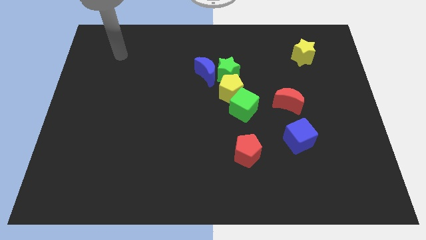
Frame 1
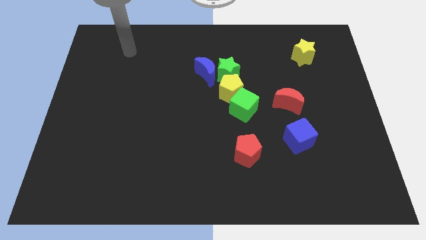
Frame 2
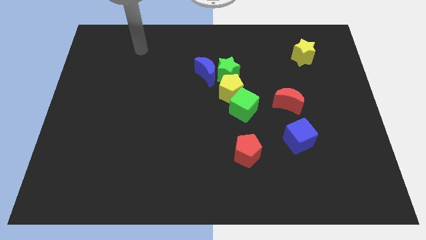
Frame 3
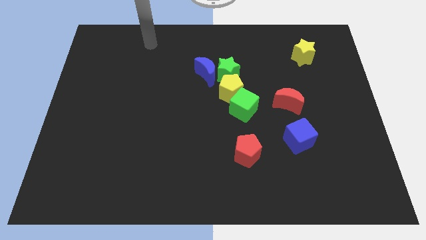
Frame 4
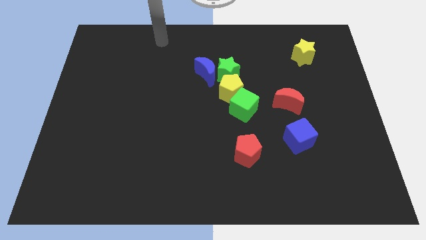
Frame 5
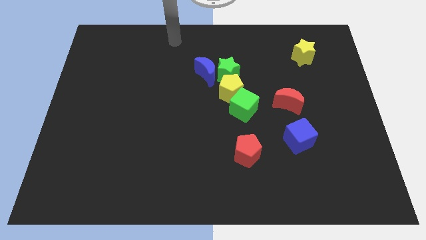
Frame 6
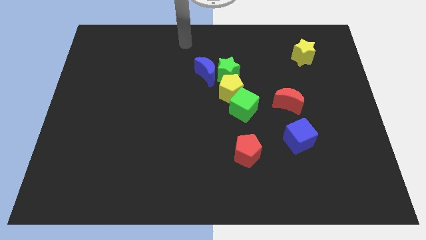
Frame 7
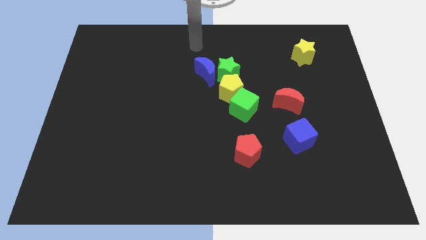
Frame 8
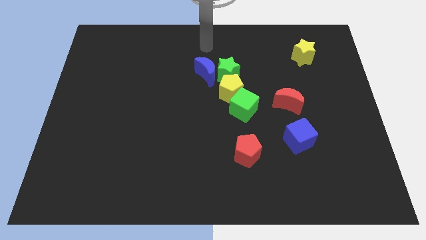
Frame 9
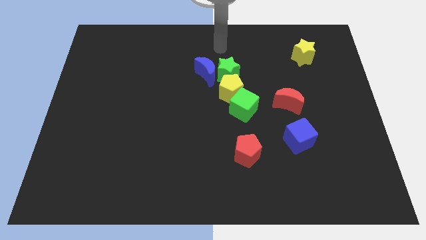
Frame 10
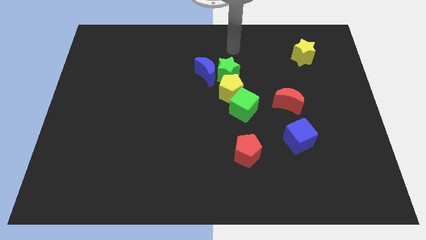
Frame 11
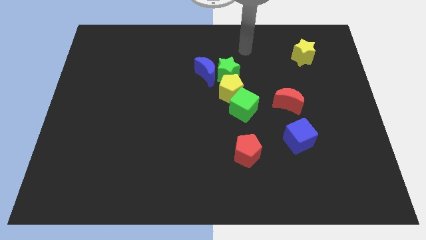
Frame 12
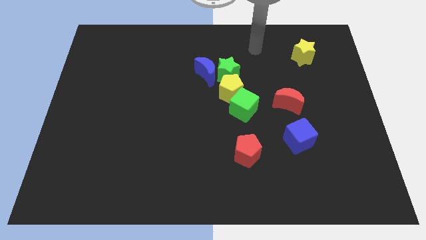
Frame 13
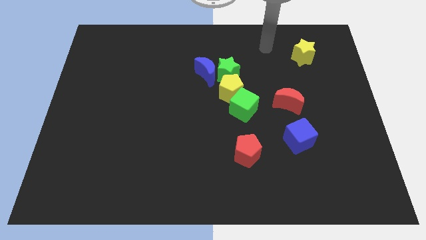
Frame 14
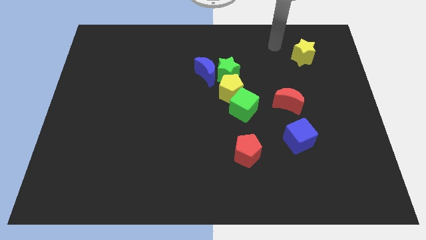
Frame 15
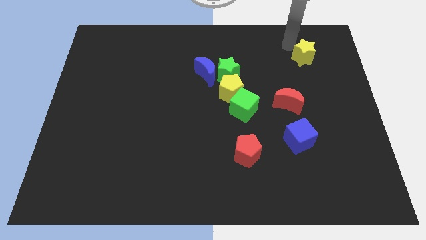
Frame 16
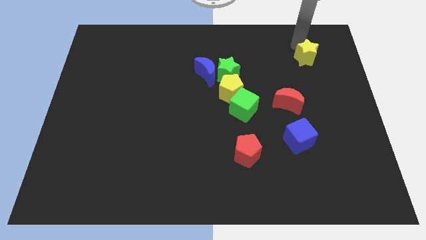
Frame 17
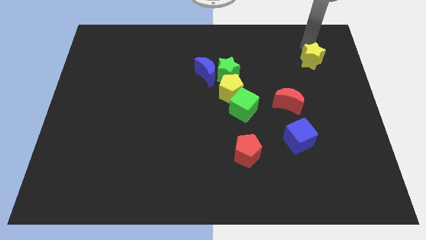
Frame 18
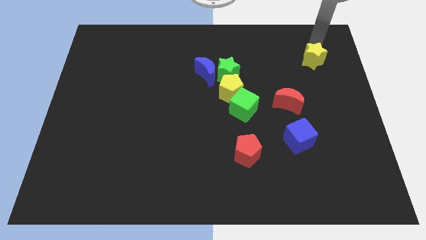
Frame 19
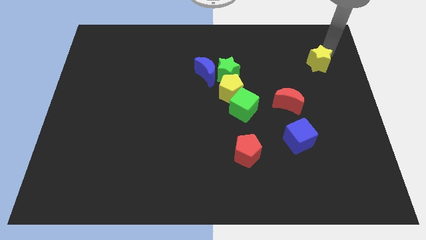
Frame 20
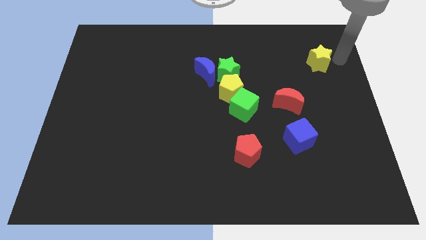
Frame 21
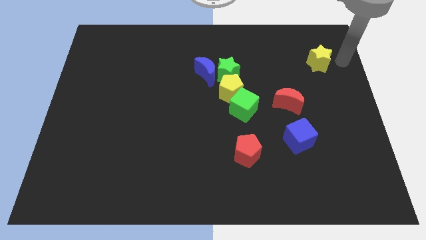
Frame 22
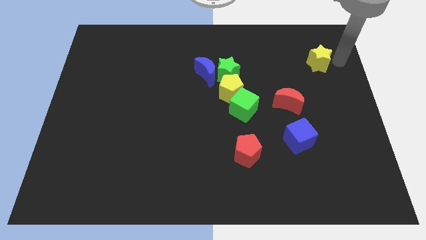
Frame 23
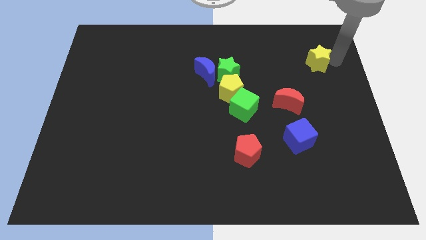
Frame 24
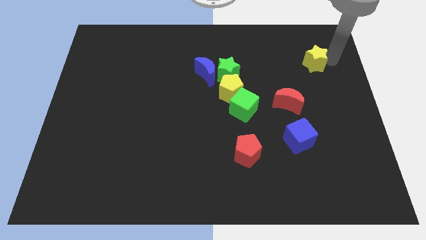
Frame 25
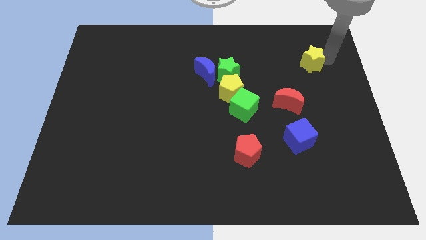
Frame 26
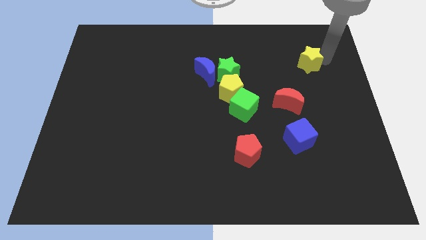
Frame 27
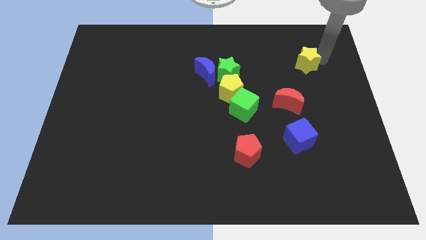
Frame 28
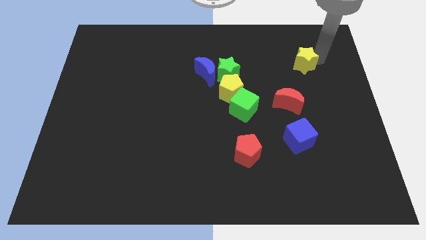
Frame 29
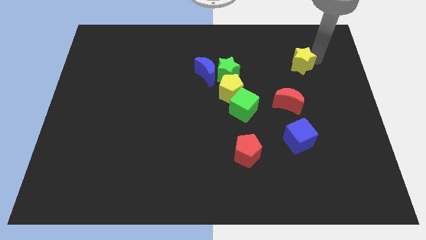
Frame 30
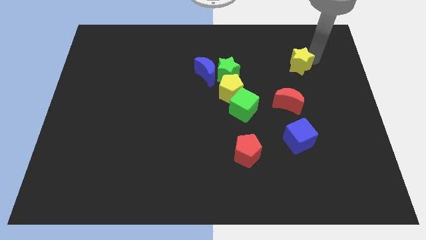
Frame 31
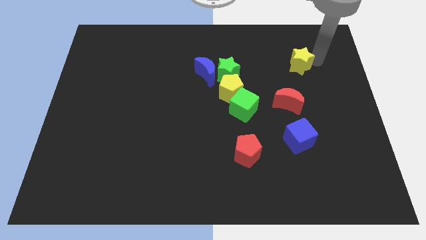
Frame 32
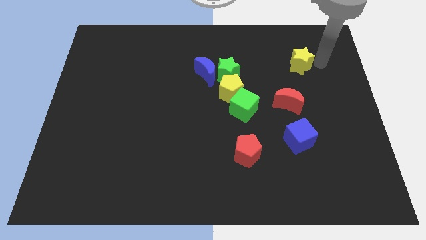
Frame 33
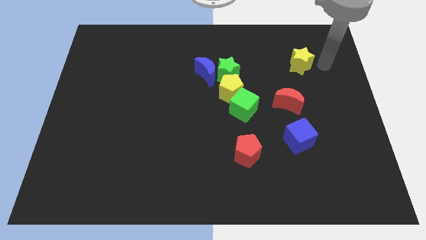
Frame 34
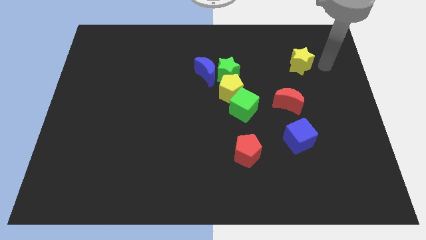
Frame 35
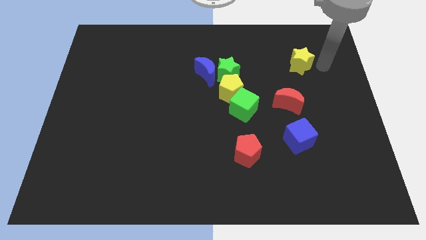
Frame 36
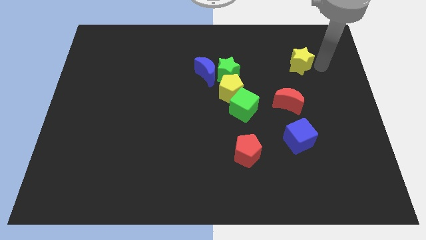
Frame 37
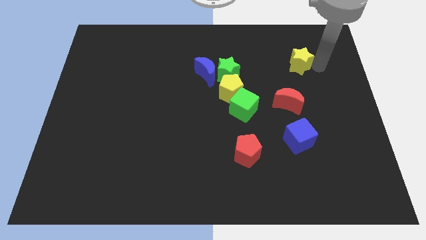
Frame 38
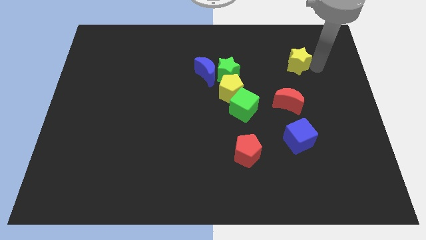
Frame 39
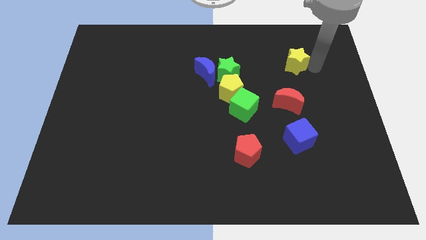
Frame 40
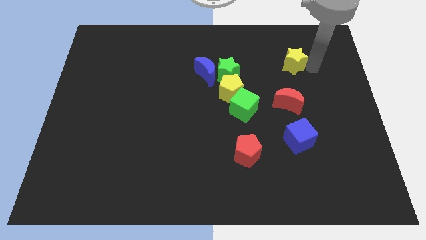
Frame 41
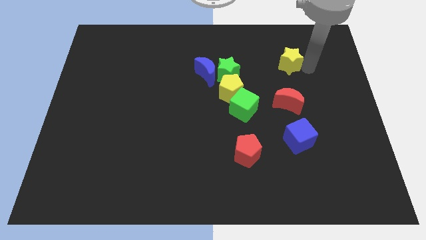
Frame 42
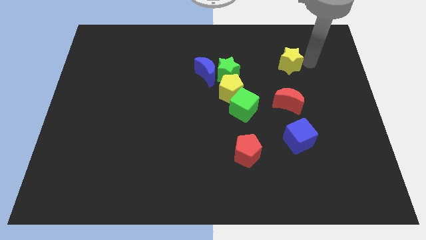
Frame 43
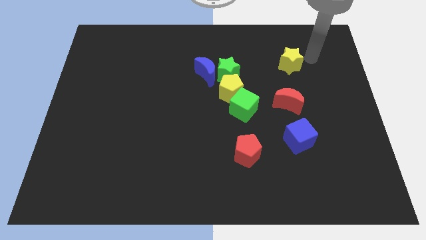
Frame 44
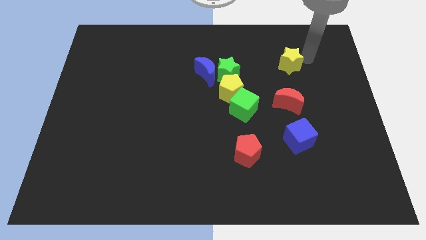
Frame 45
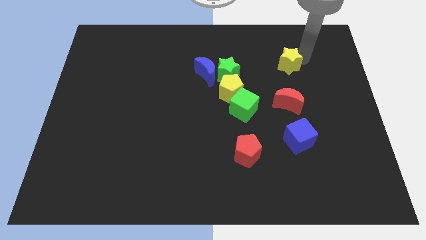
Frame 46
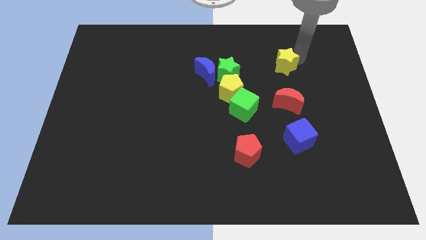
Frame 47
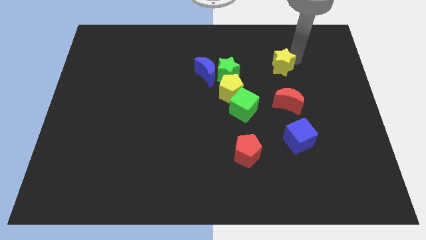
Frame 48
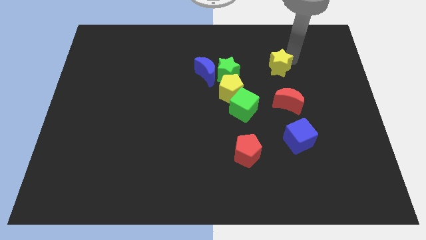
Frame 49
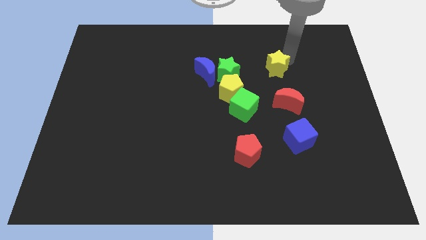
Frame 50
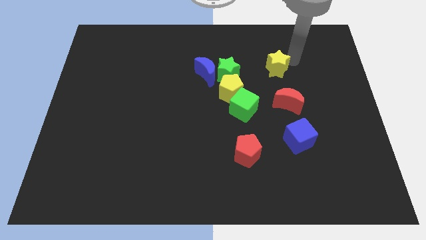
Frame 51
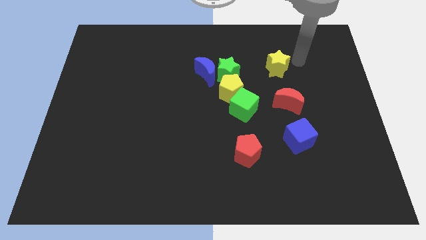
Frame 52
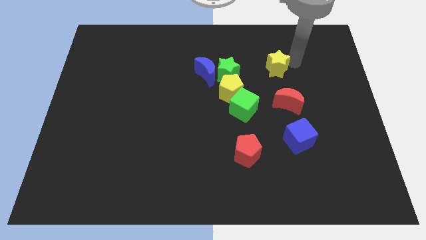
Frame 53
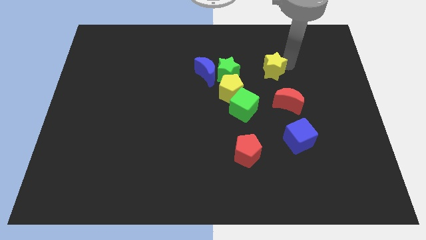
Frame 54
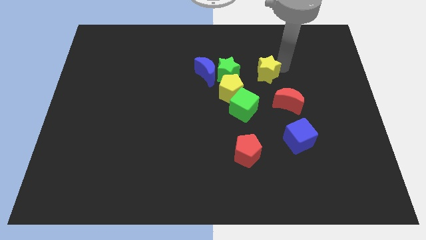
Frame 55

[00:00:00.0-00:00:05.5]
move the yellow star to the top right of the yellow pentagon

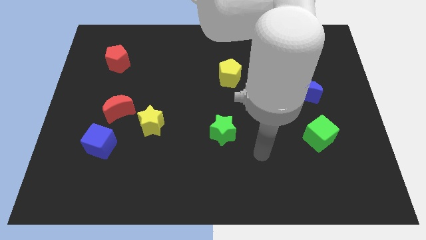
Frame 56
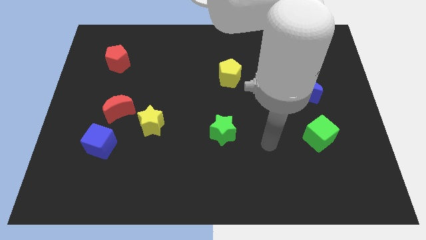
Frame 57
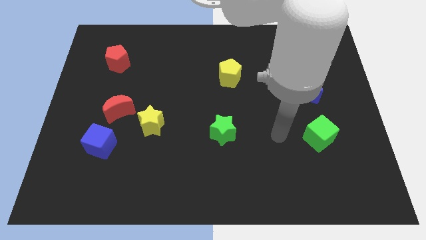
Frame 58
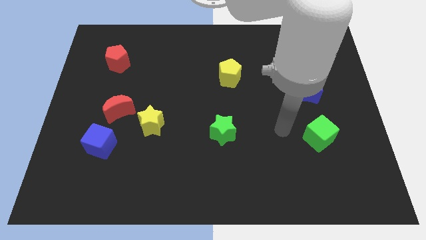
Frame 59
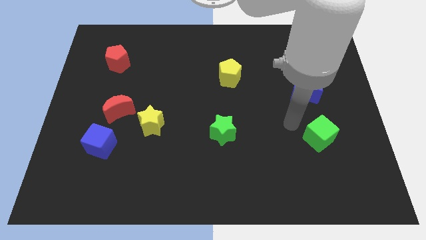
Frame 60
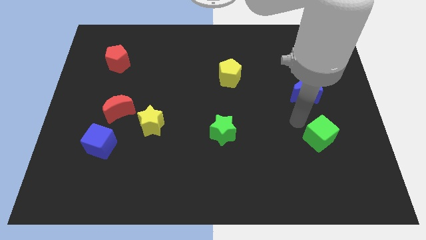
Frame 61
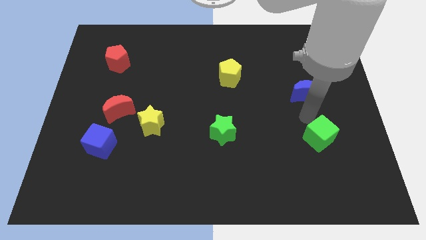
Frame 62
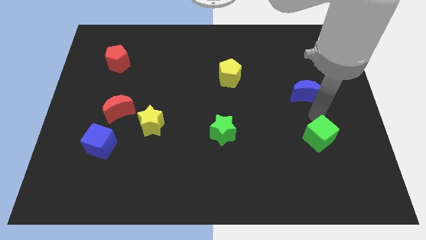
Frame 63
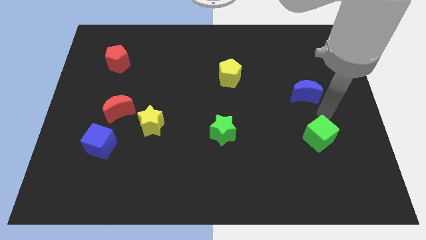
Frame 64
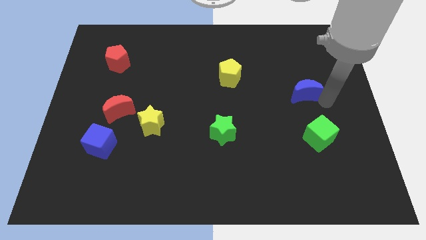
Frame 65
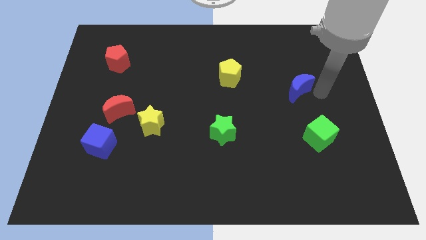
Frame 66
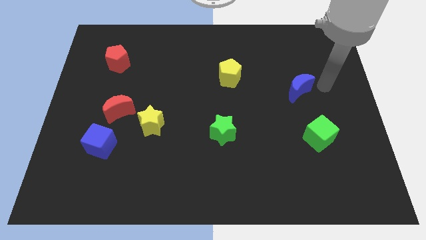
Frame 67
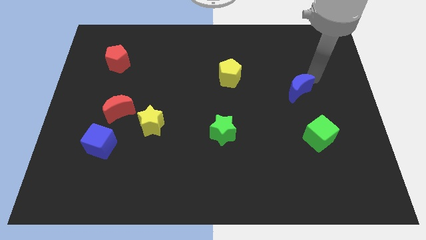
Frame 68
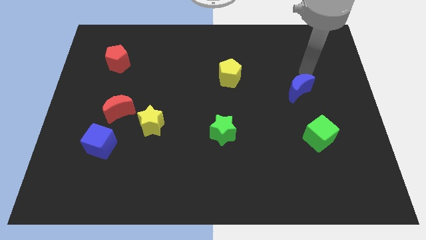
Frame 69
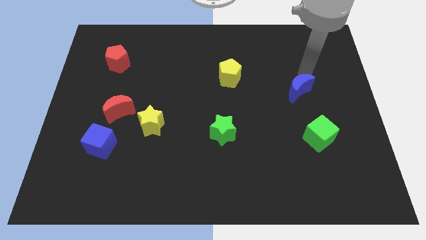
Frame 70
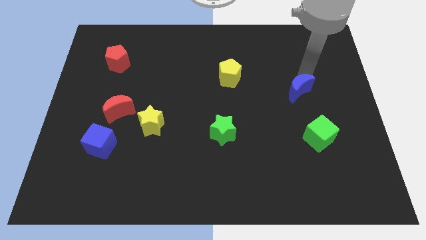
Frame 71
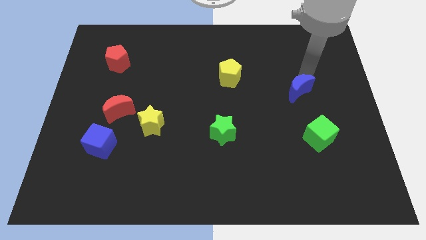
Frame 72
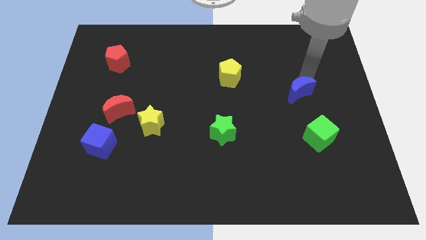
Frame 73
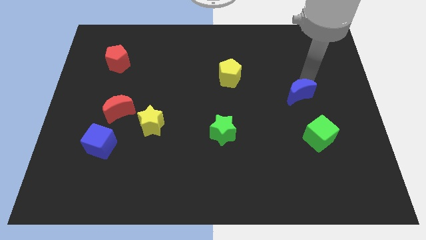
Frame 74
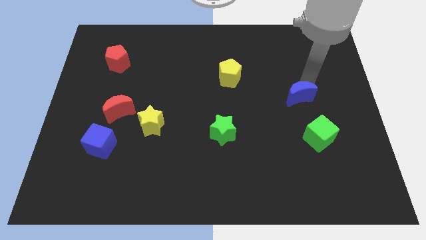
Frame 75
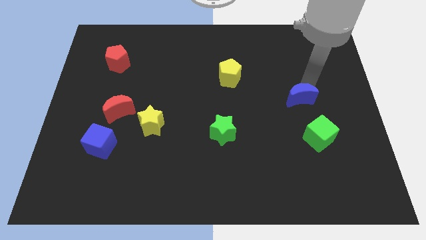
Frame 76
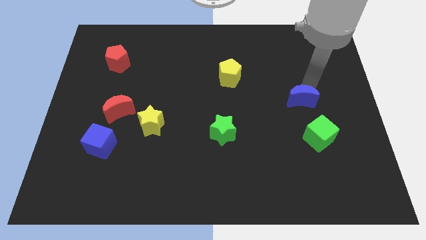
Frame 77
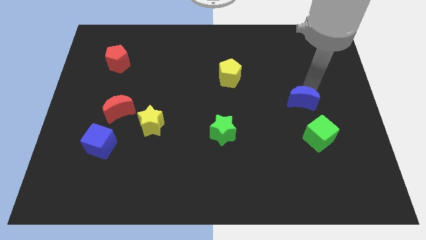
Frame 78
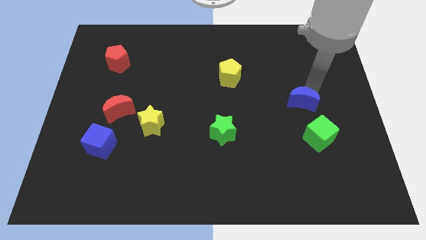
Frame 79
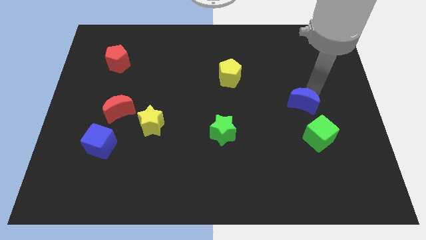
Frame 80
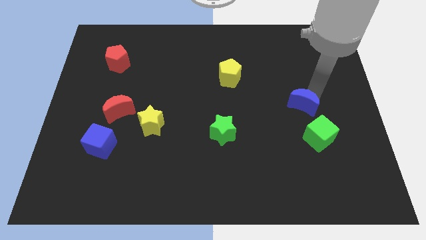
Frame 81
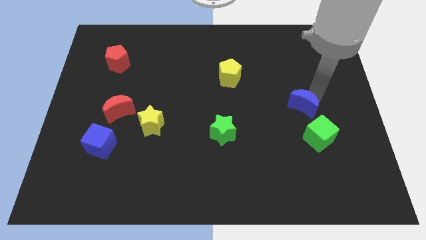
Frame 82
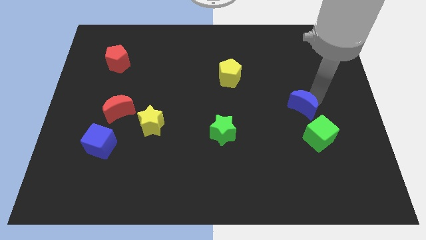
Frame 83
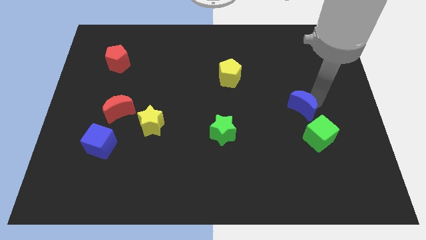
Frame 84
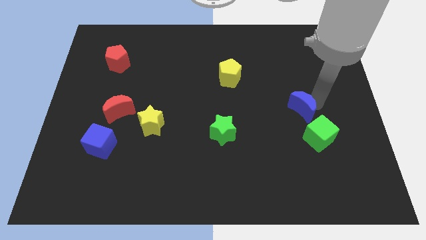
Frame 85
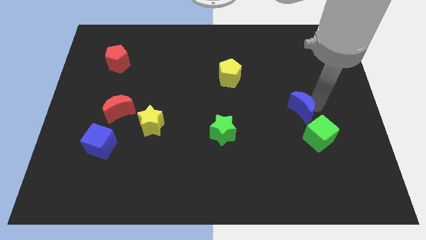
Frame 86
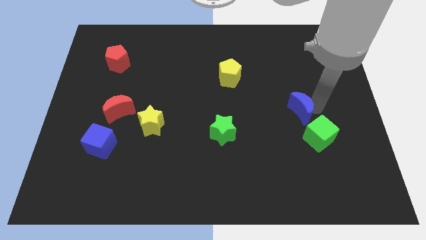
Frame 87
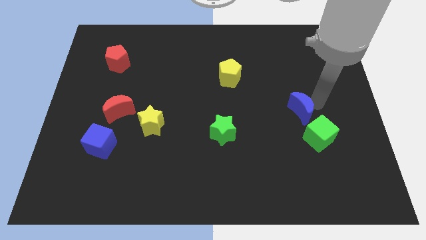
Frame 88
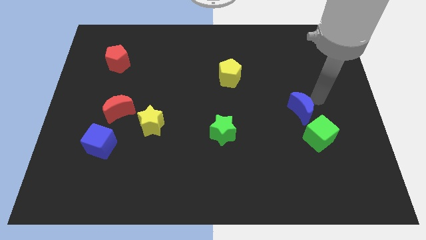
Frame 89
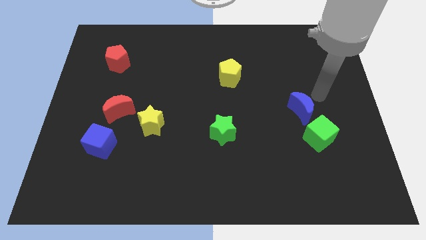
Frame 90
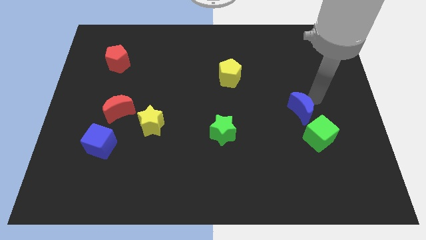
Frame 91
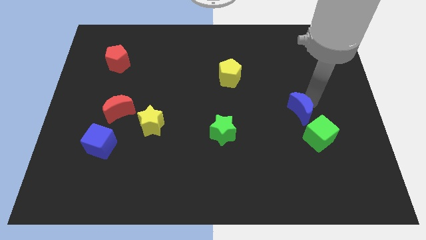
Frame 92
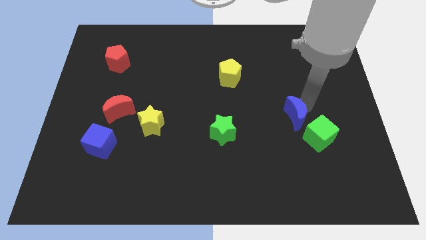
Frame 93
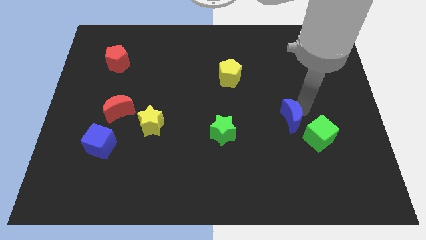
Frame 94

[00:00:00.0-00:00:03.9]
move the blue moon left of the green cube
